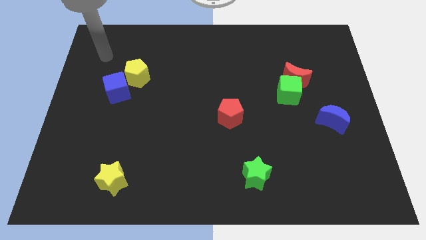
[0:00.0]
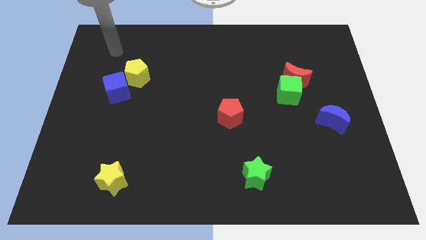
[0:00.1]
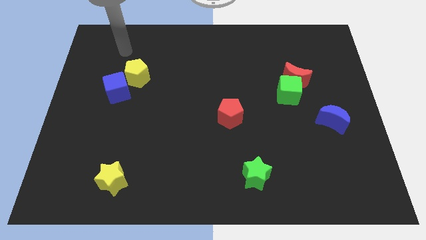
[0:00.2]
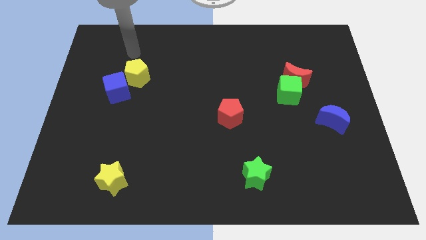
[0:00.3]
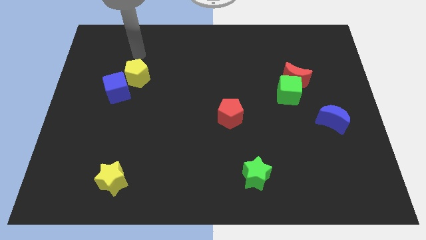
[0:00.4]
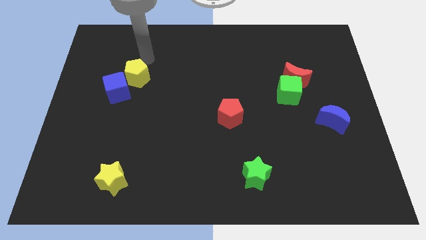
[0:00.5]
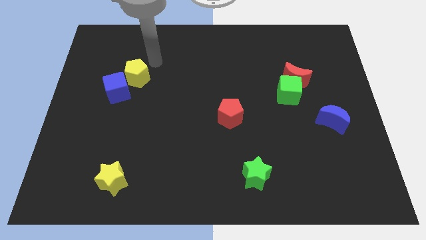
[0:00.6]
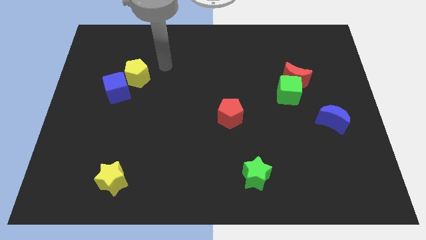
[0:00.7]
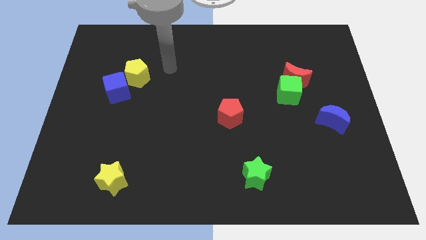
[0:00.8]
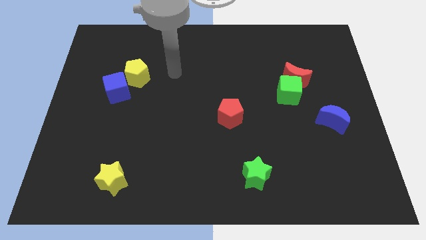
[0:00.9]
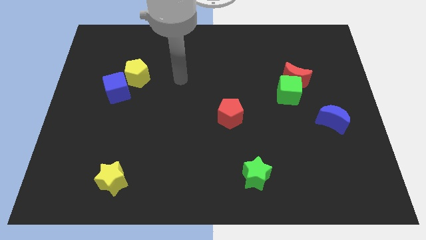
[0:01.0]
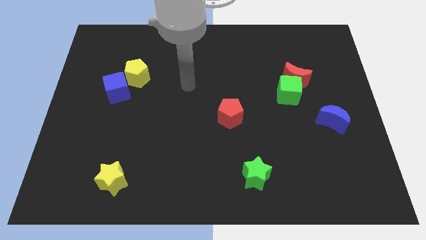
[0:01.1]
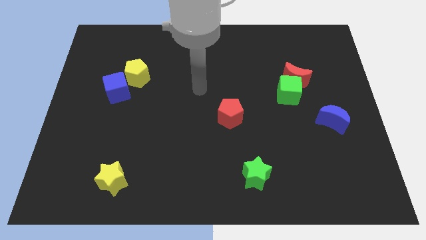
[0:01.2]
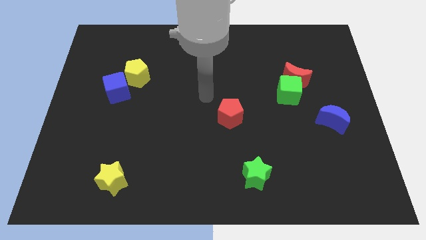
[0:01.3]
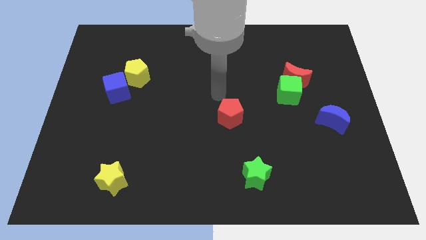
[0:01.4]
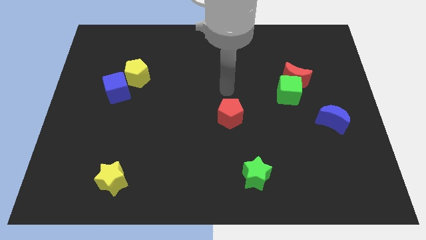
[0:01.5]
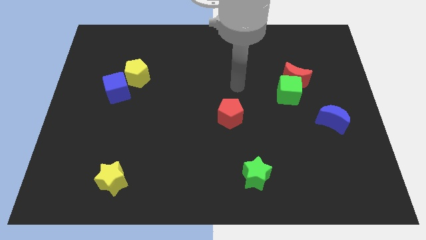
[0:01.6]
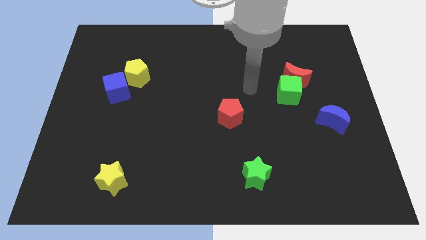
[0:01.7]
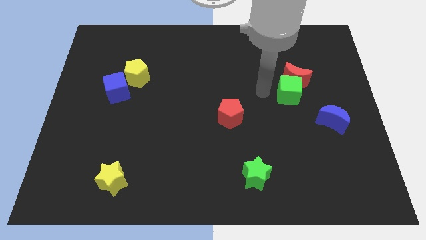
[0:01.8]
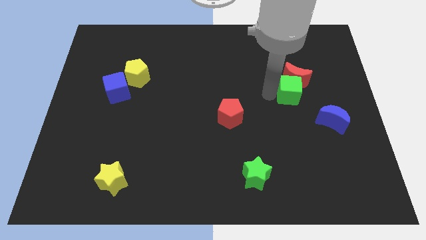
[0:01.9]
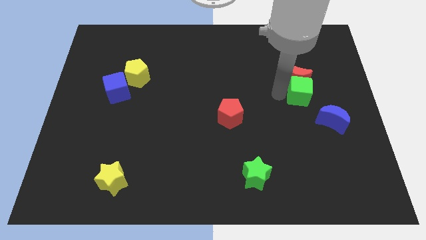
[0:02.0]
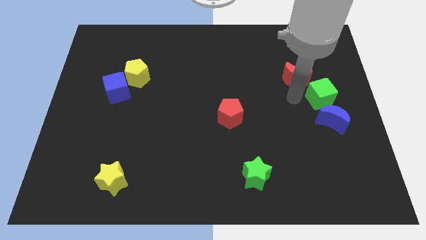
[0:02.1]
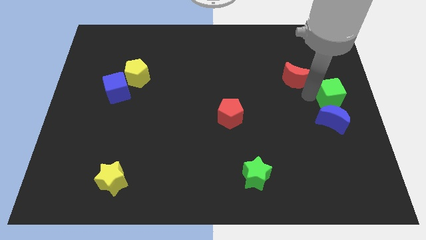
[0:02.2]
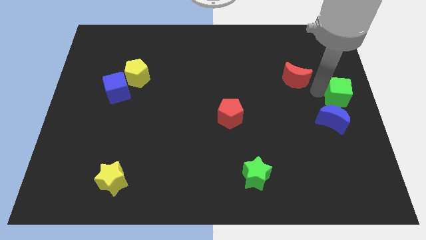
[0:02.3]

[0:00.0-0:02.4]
move the red moon away from the green cube

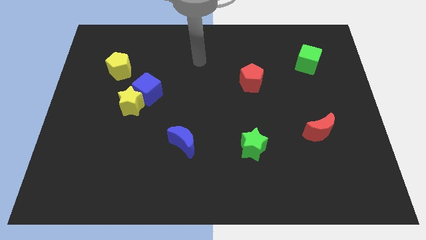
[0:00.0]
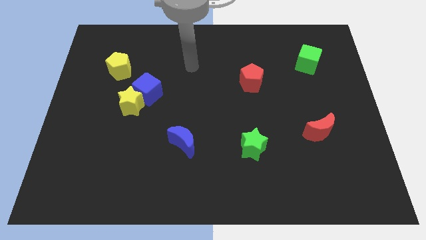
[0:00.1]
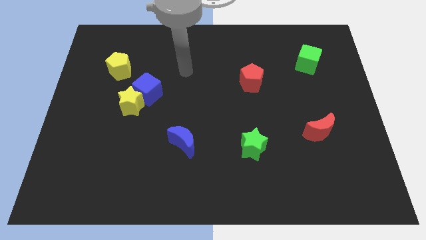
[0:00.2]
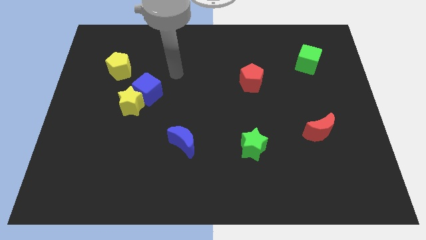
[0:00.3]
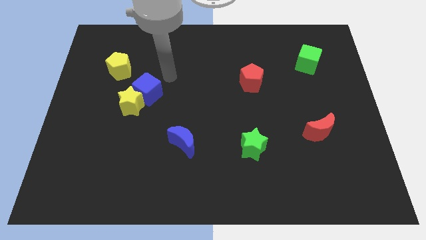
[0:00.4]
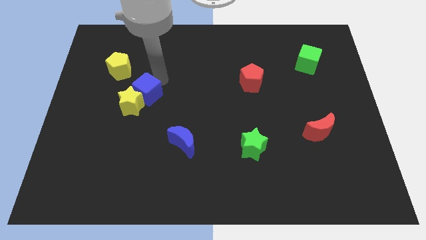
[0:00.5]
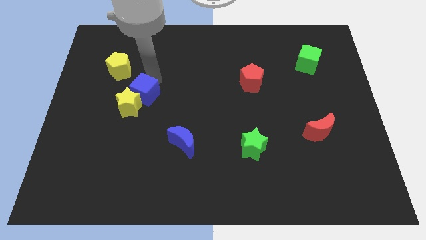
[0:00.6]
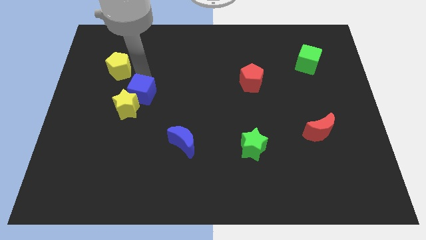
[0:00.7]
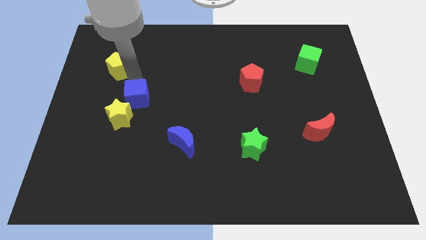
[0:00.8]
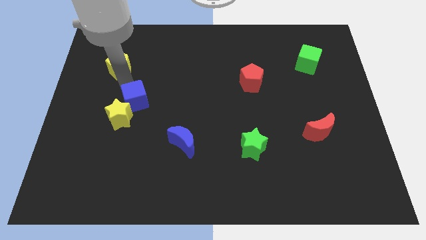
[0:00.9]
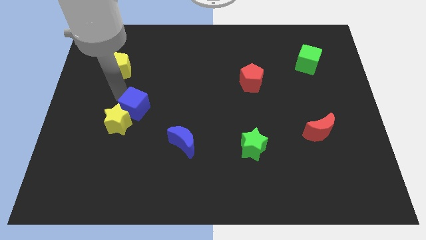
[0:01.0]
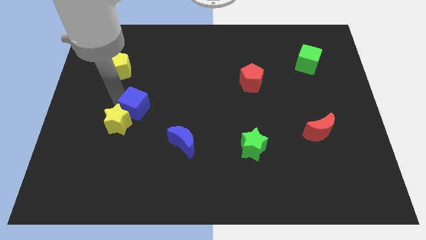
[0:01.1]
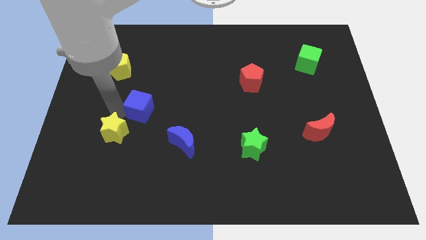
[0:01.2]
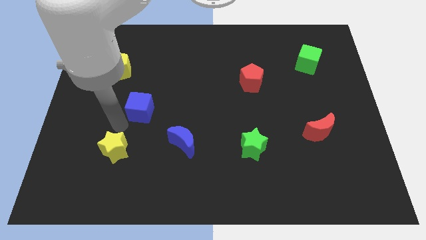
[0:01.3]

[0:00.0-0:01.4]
move the blue cube away from the yellow star

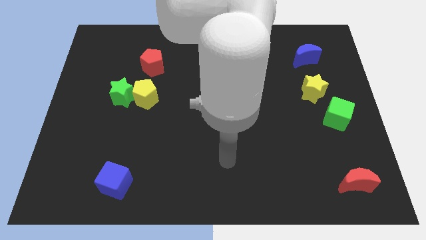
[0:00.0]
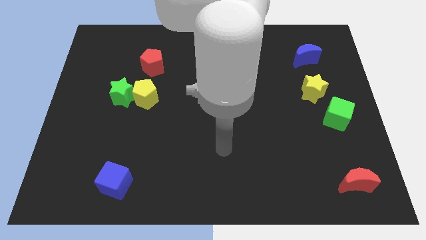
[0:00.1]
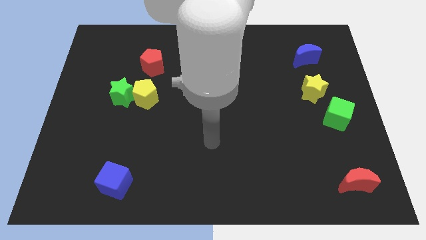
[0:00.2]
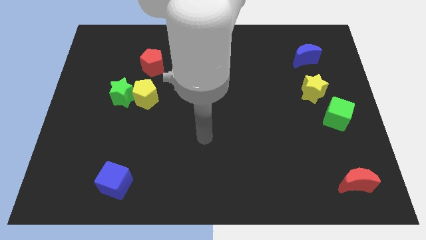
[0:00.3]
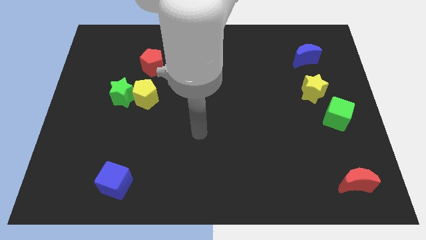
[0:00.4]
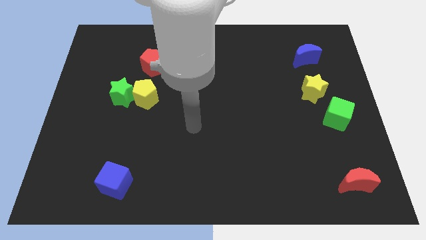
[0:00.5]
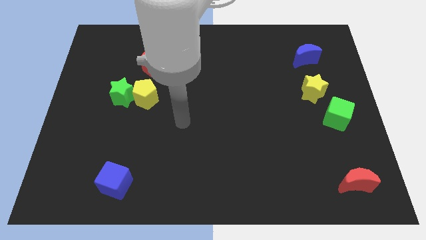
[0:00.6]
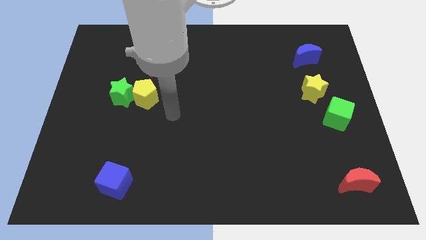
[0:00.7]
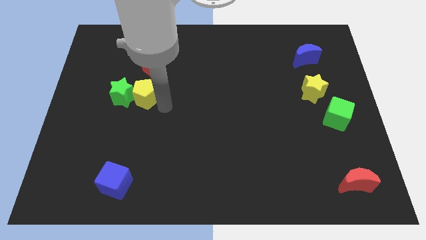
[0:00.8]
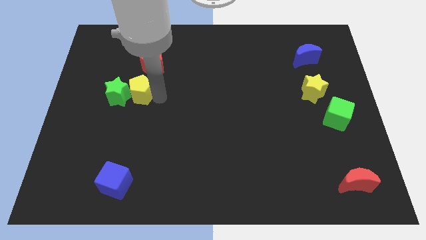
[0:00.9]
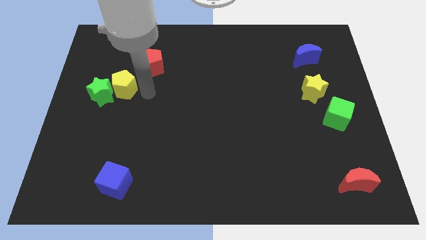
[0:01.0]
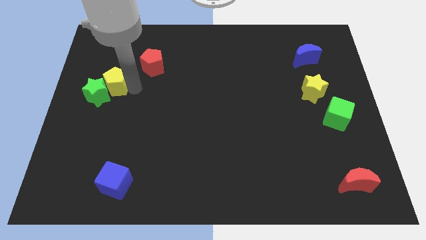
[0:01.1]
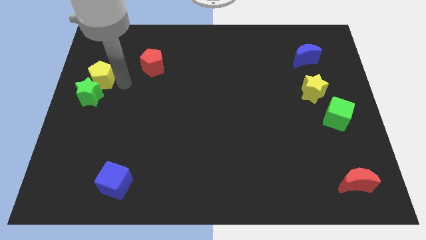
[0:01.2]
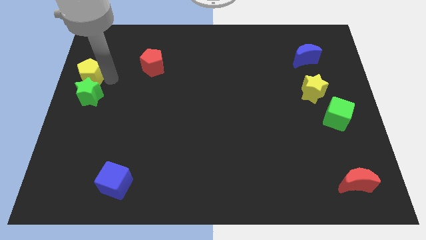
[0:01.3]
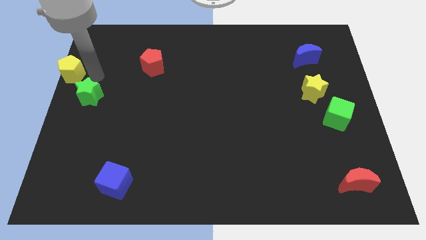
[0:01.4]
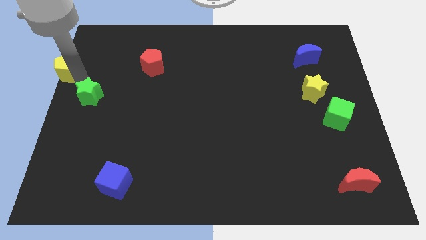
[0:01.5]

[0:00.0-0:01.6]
pull the green star apart from the yellow pentagon

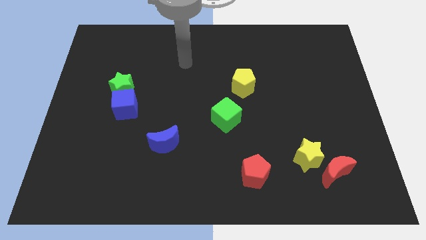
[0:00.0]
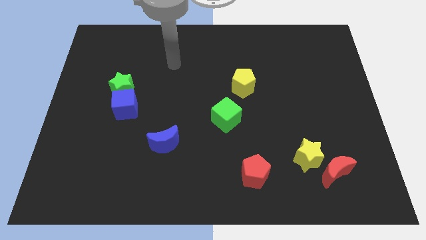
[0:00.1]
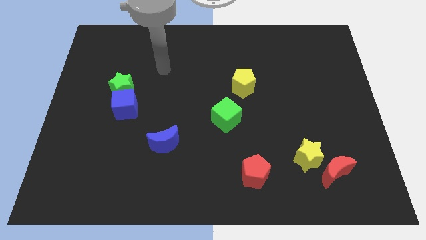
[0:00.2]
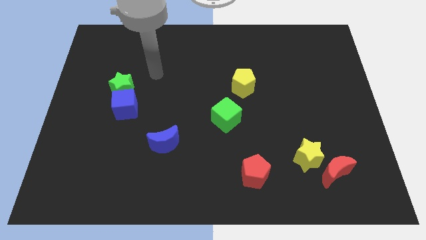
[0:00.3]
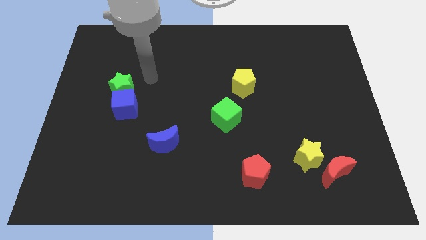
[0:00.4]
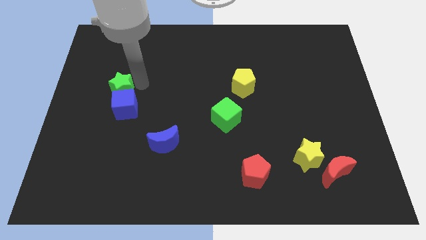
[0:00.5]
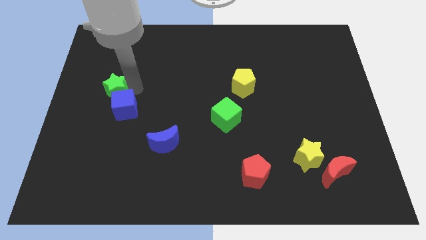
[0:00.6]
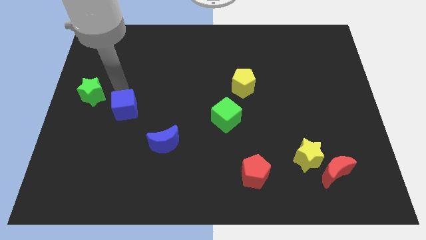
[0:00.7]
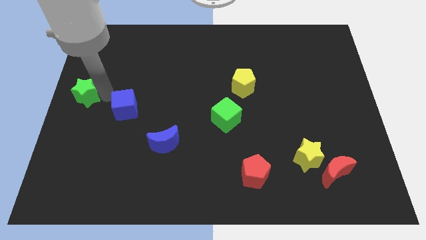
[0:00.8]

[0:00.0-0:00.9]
separate the blue cube from the green star

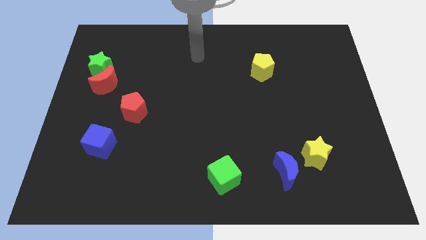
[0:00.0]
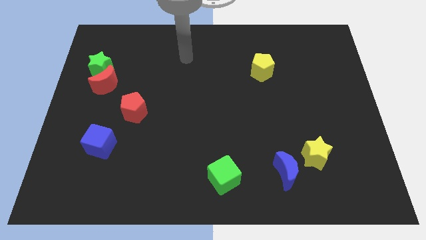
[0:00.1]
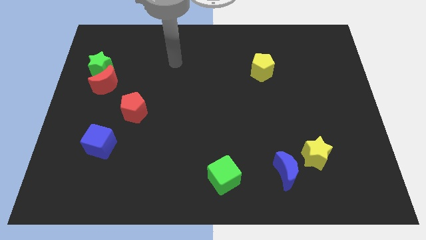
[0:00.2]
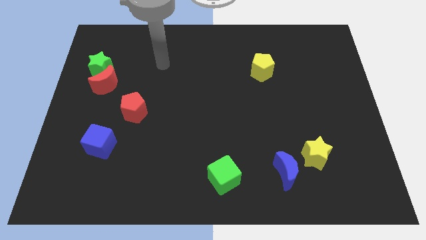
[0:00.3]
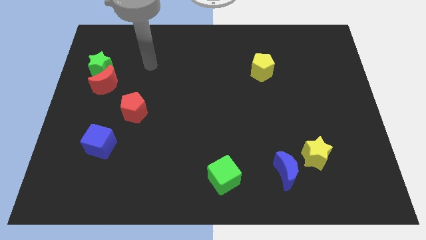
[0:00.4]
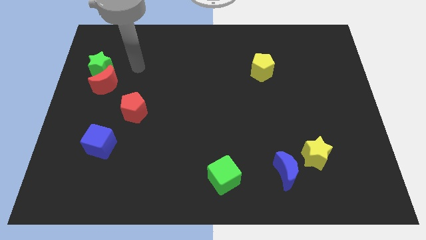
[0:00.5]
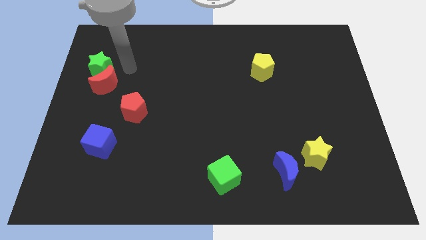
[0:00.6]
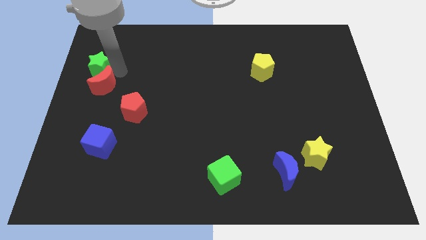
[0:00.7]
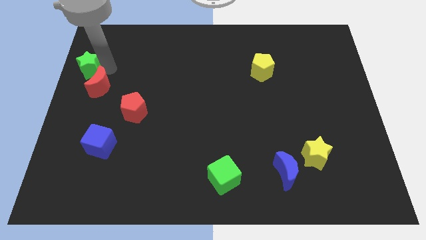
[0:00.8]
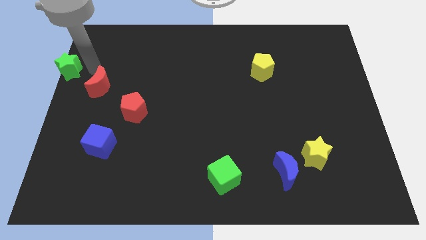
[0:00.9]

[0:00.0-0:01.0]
move the red moon away from the green star

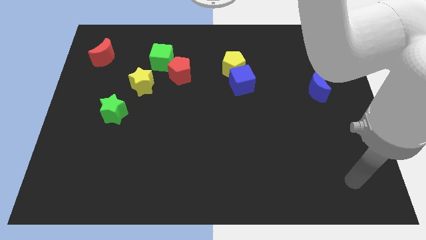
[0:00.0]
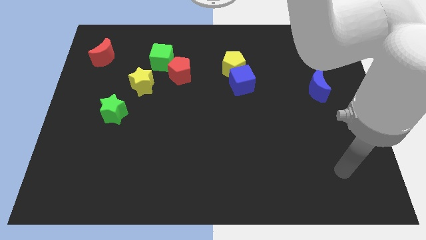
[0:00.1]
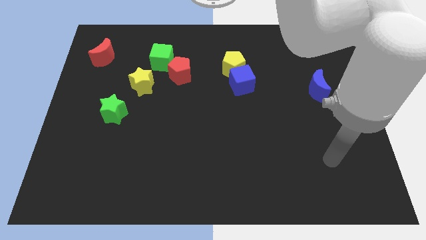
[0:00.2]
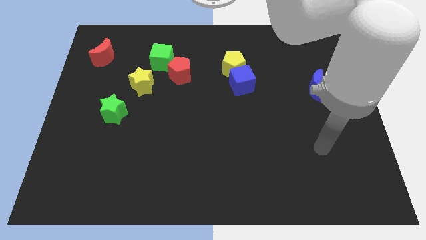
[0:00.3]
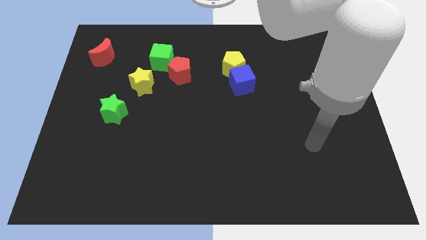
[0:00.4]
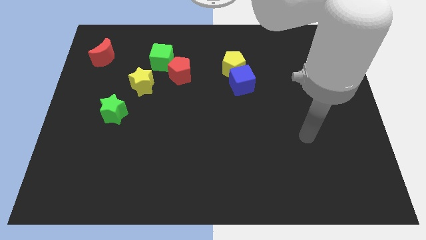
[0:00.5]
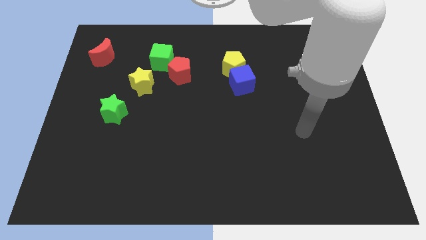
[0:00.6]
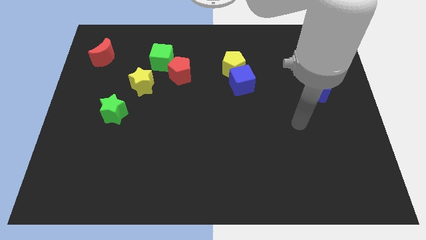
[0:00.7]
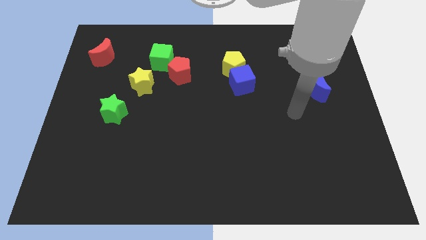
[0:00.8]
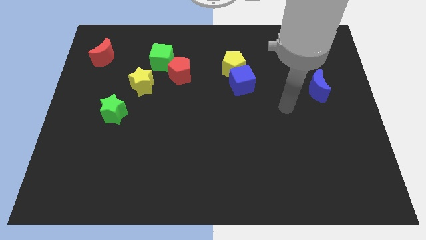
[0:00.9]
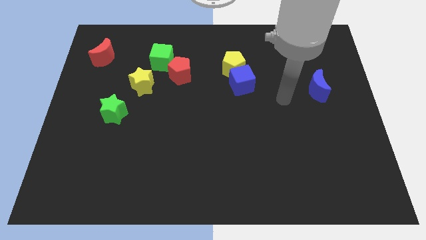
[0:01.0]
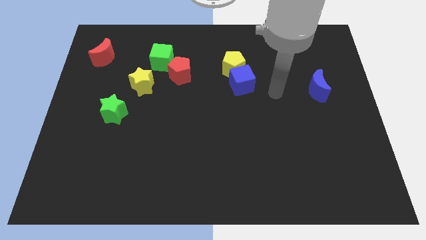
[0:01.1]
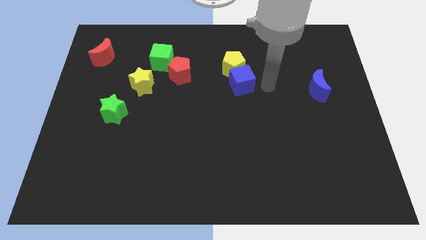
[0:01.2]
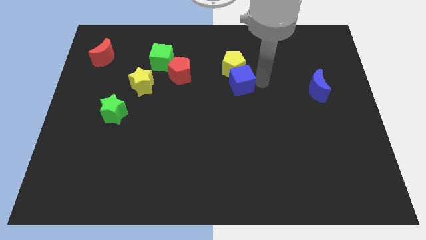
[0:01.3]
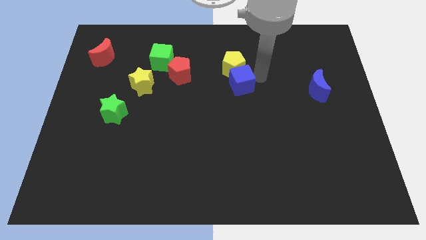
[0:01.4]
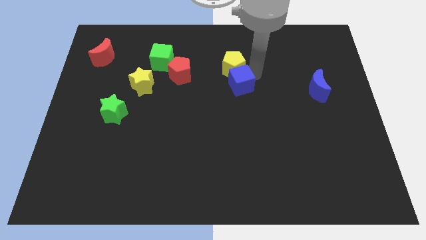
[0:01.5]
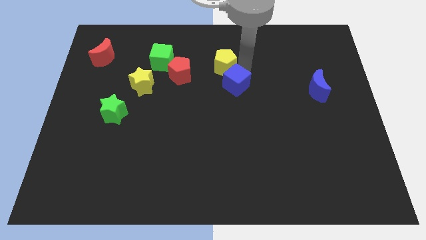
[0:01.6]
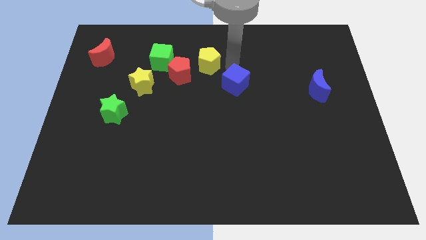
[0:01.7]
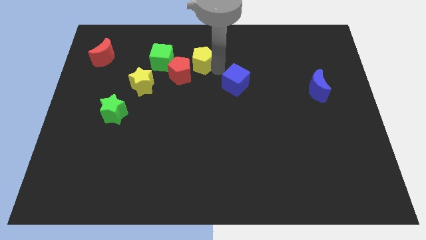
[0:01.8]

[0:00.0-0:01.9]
pull the blue cube apart from the yellow pentagon

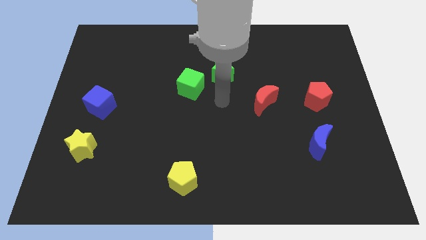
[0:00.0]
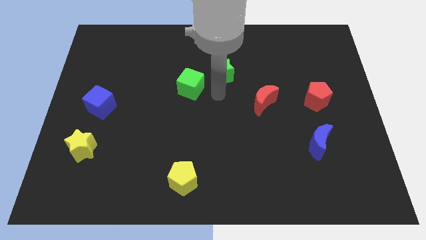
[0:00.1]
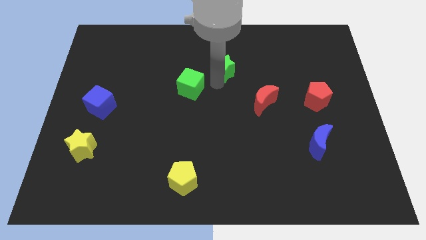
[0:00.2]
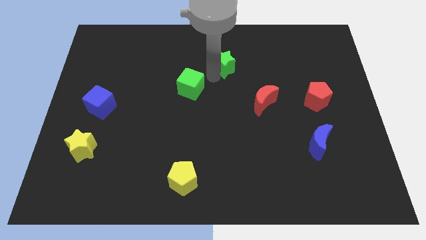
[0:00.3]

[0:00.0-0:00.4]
move the green cube away from the green star
